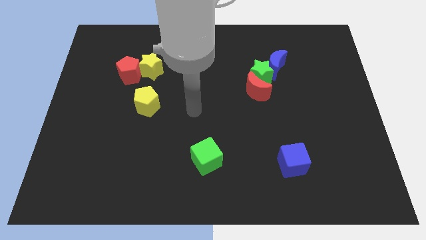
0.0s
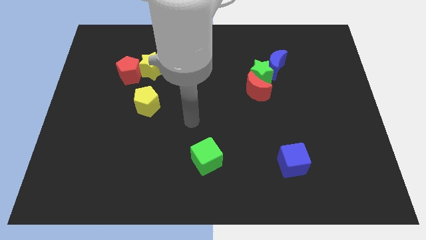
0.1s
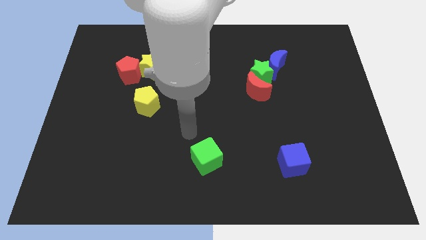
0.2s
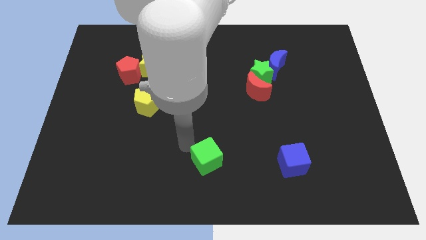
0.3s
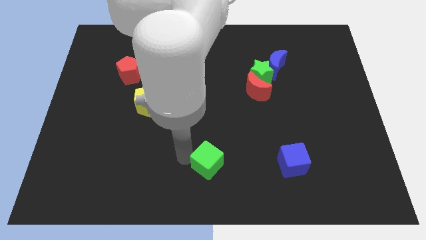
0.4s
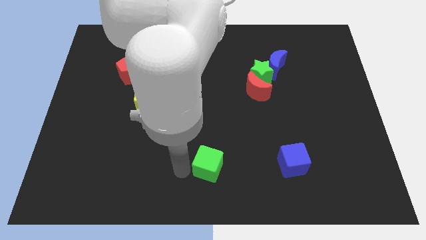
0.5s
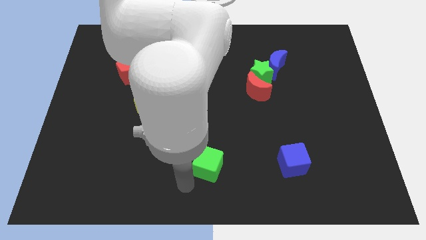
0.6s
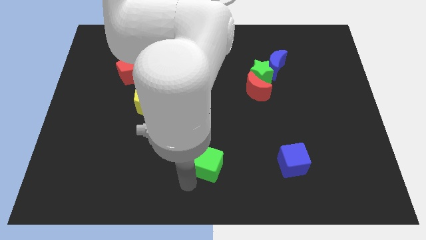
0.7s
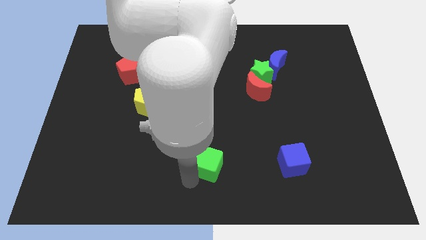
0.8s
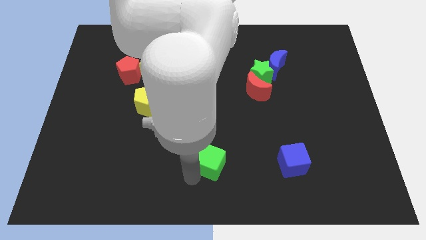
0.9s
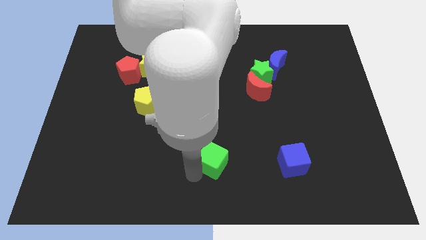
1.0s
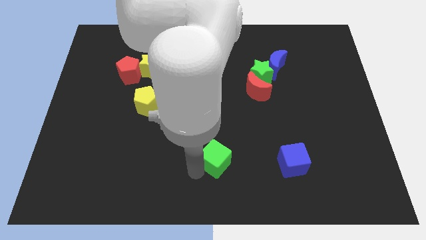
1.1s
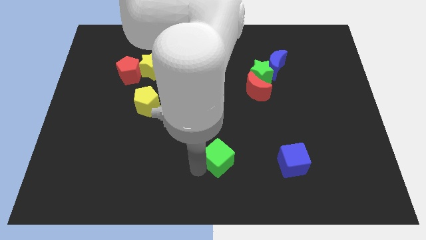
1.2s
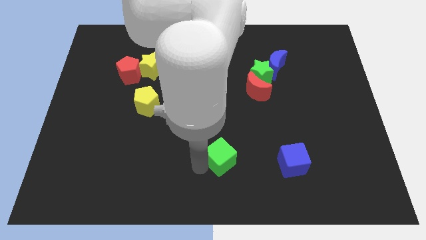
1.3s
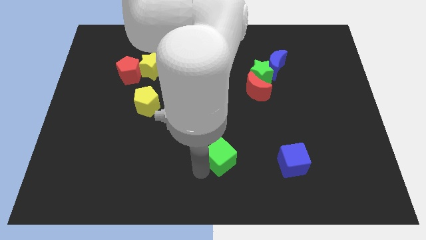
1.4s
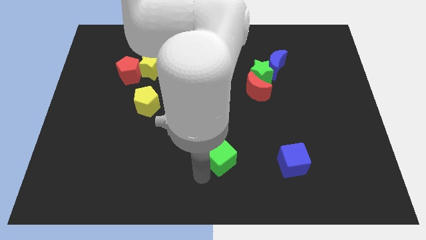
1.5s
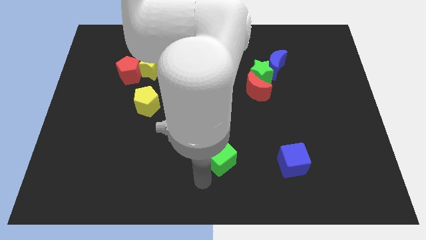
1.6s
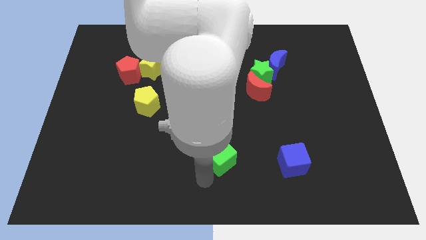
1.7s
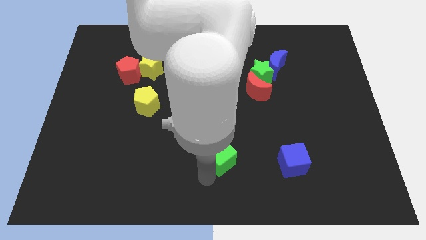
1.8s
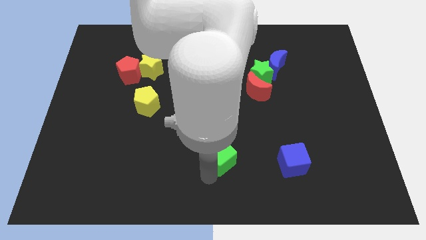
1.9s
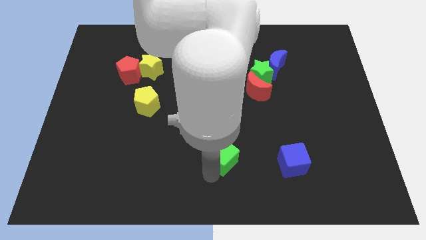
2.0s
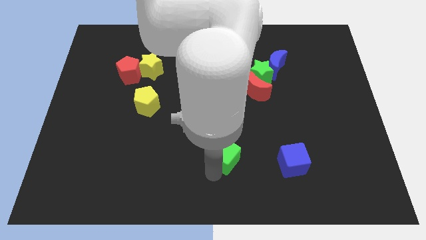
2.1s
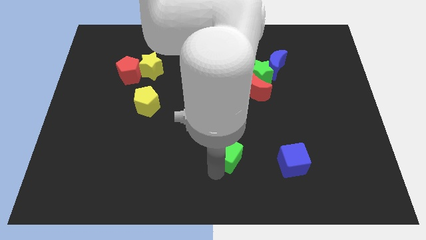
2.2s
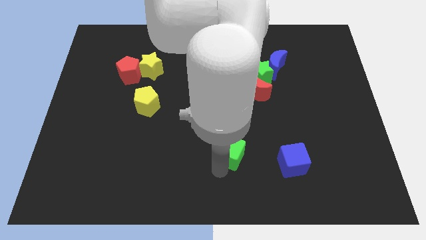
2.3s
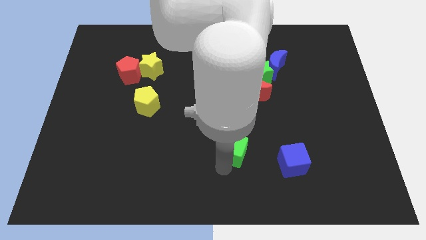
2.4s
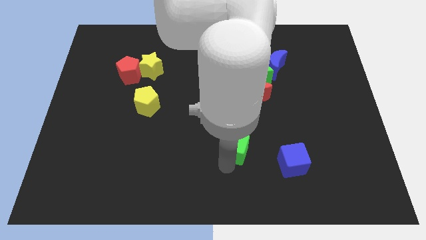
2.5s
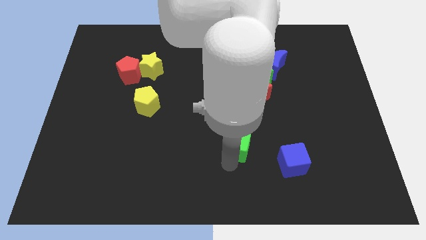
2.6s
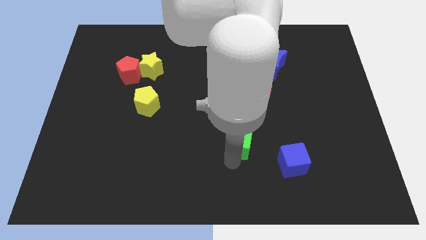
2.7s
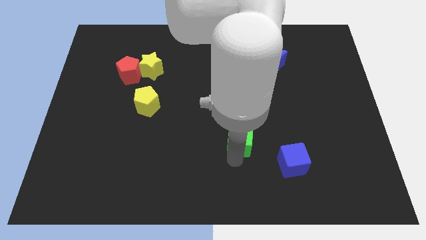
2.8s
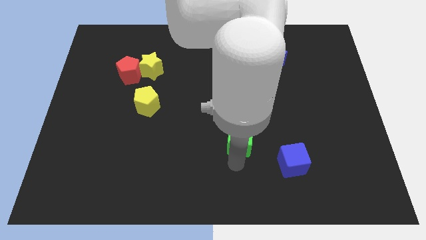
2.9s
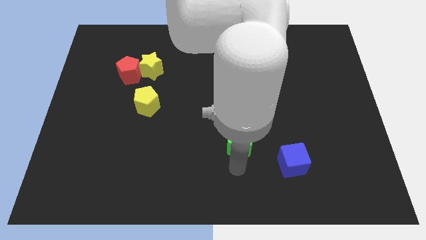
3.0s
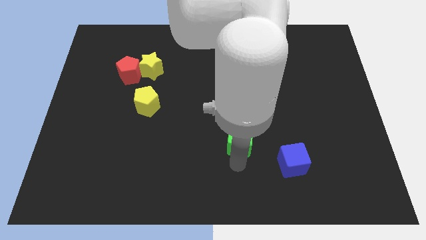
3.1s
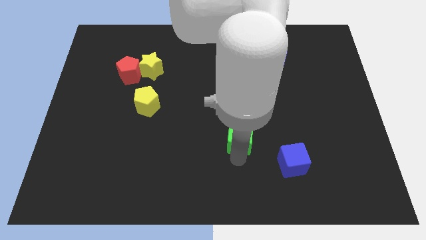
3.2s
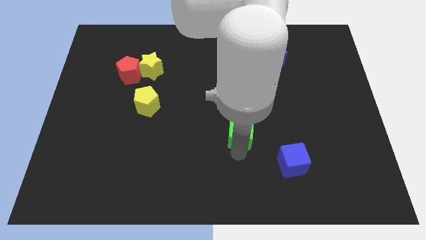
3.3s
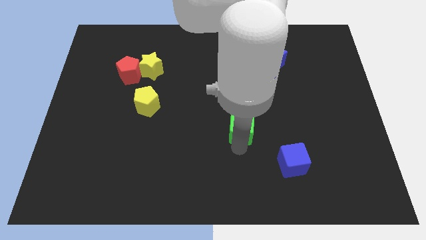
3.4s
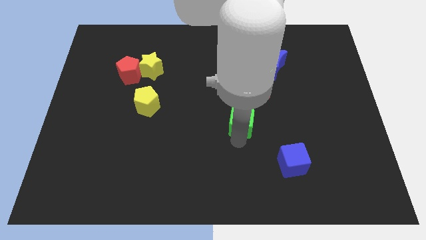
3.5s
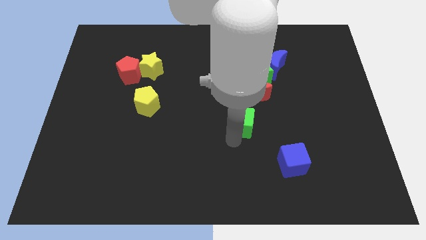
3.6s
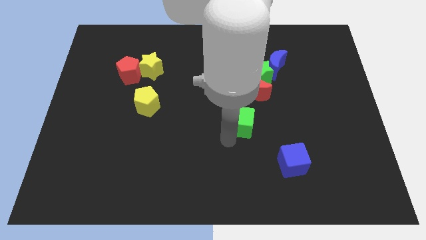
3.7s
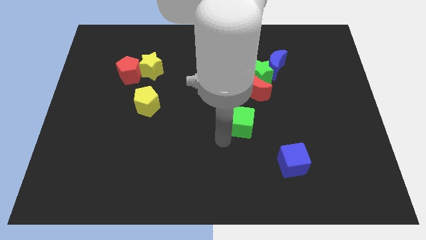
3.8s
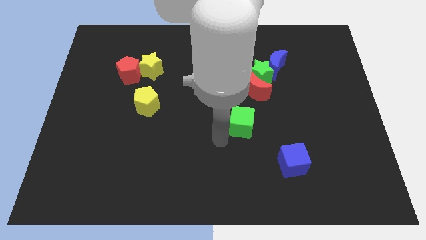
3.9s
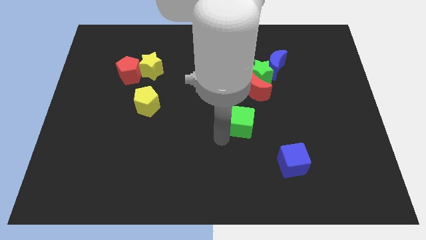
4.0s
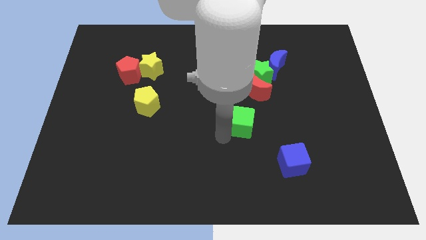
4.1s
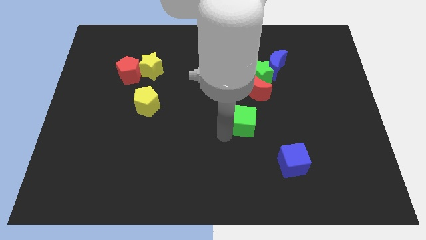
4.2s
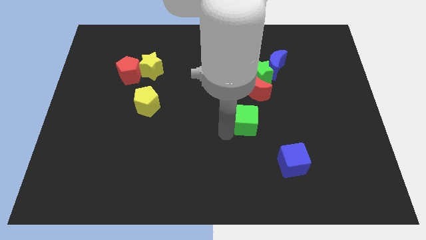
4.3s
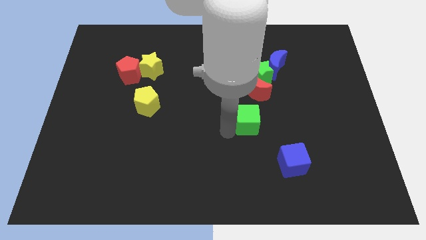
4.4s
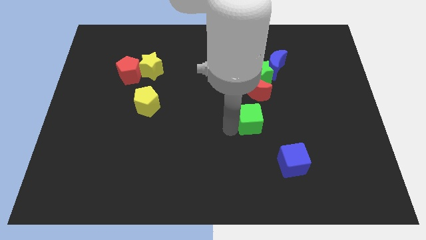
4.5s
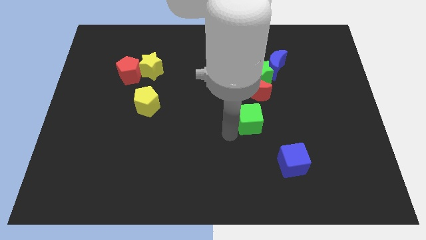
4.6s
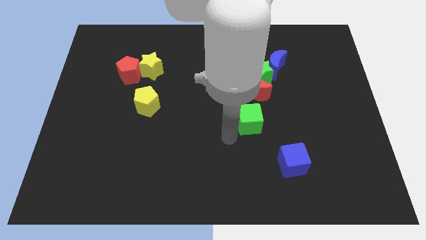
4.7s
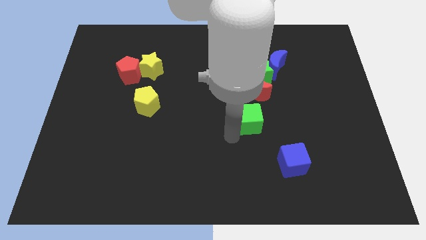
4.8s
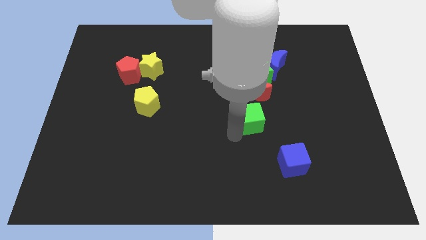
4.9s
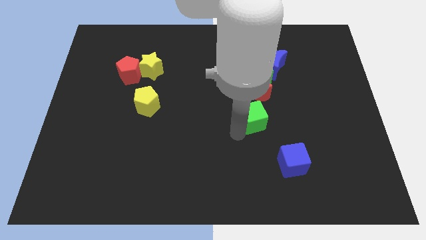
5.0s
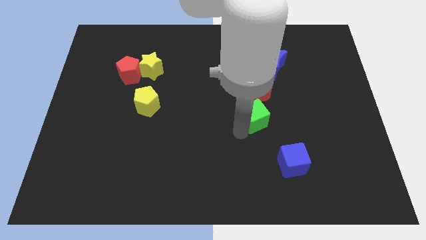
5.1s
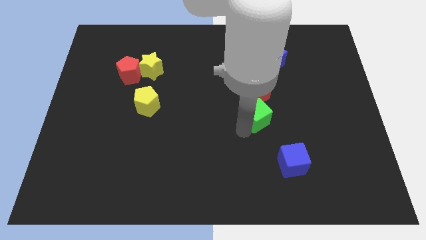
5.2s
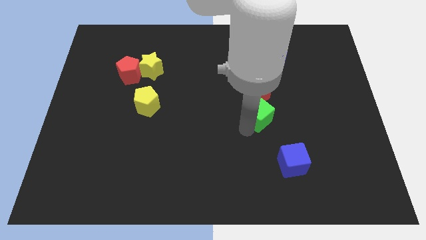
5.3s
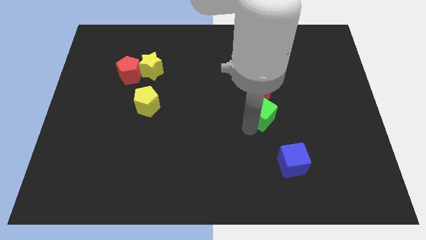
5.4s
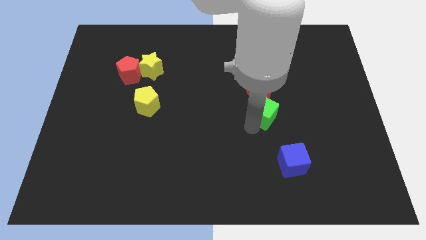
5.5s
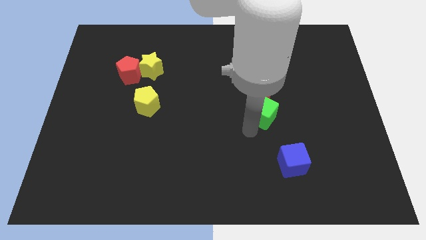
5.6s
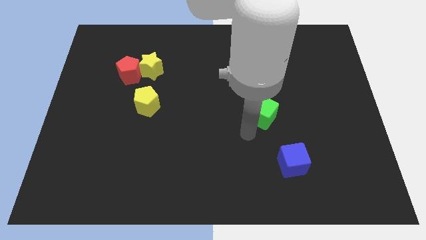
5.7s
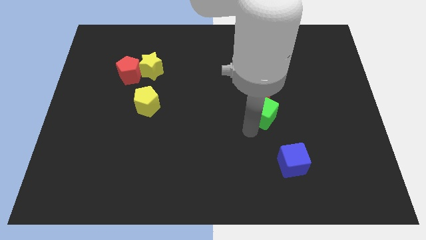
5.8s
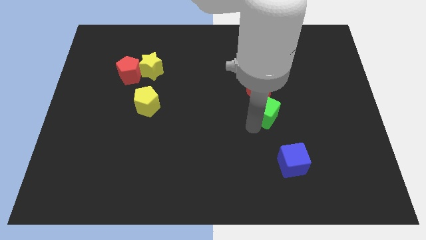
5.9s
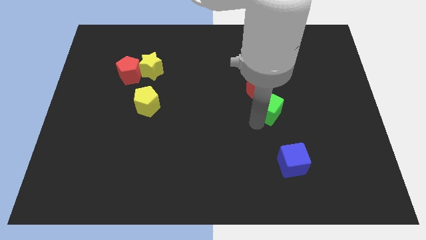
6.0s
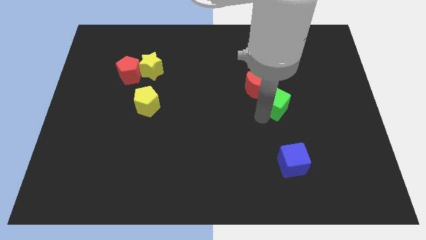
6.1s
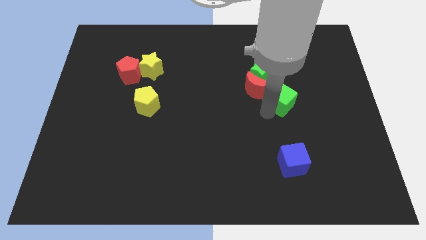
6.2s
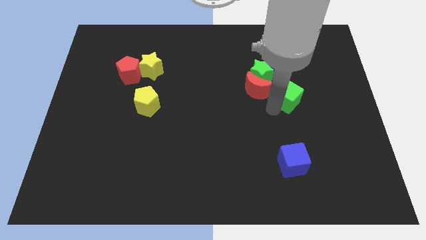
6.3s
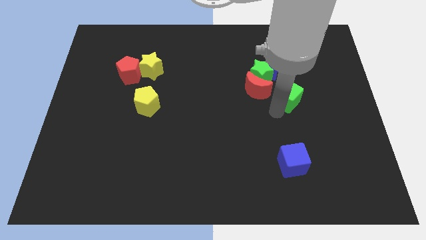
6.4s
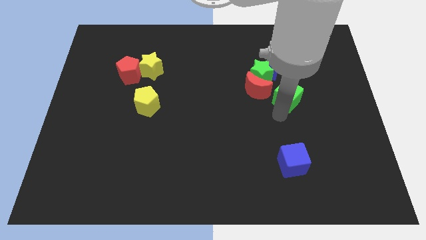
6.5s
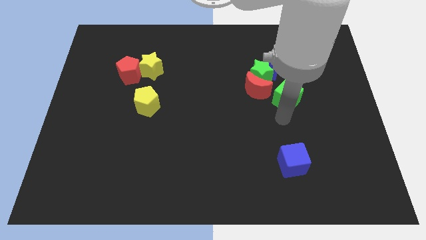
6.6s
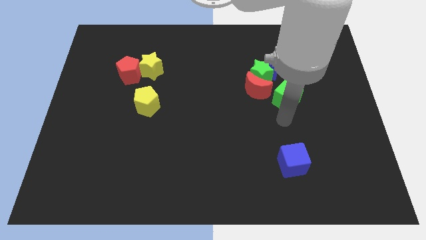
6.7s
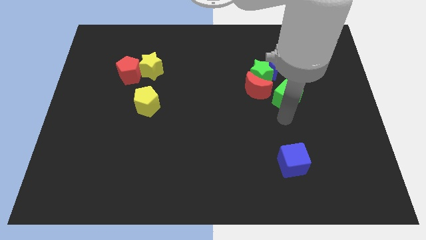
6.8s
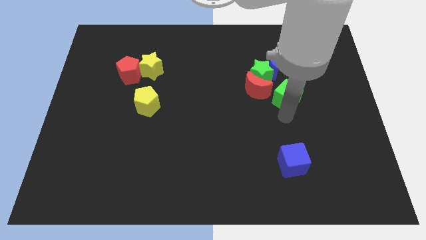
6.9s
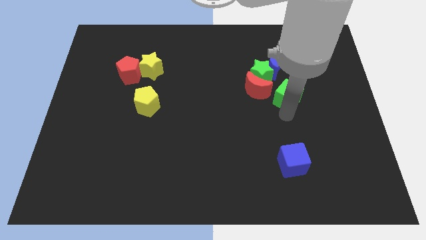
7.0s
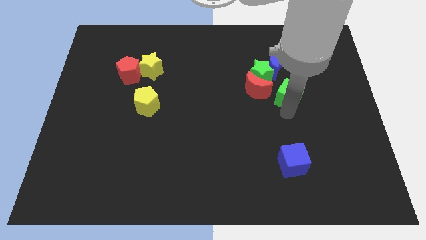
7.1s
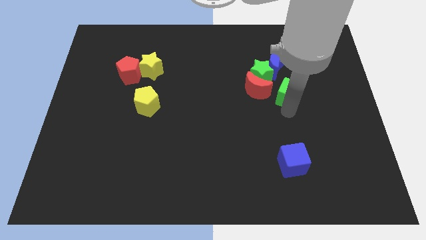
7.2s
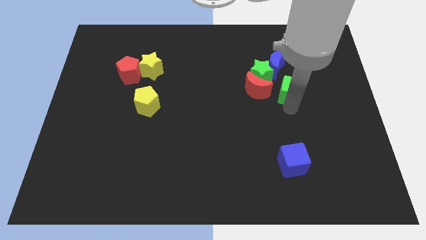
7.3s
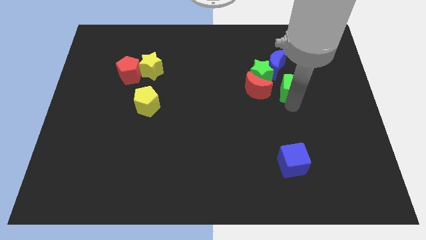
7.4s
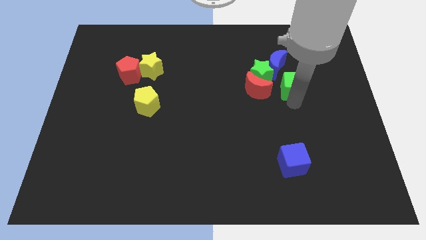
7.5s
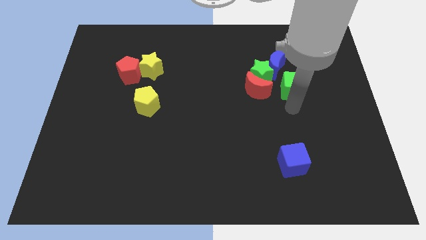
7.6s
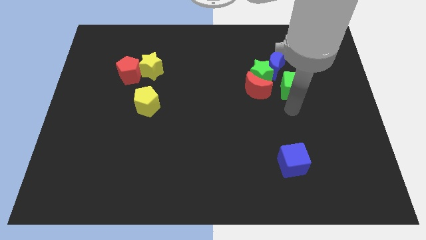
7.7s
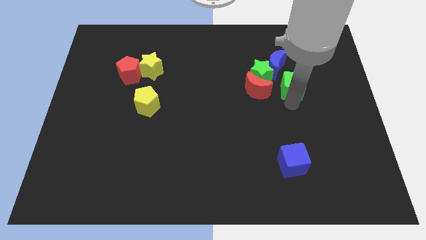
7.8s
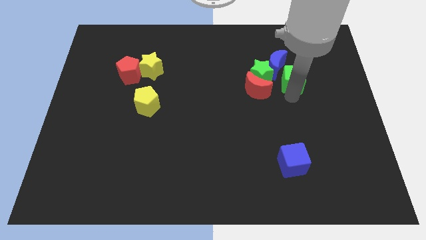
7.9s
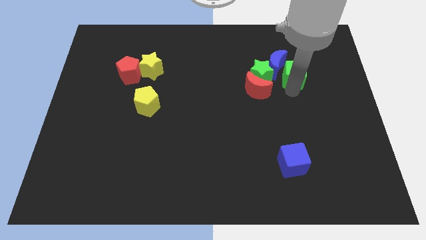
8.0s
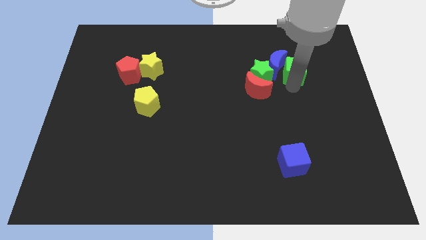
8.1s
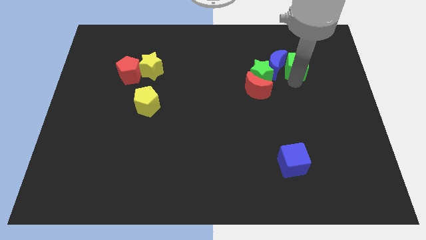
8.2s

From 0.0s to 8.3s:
slide the green cube to the top right of the green star
